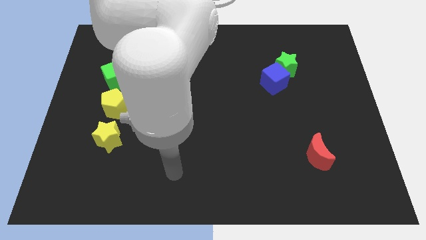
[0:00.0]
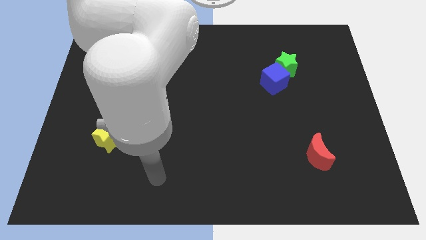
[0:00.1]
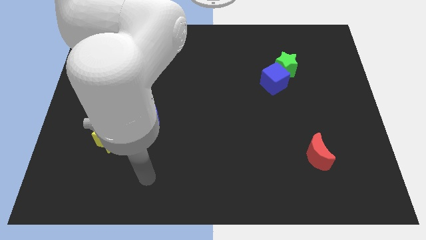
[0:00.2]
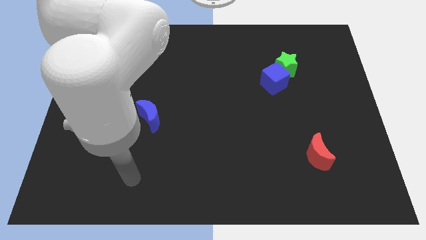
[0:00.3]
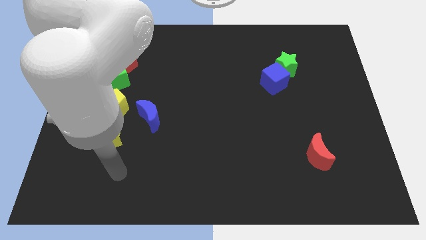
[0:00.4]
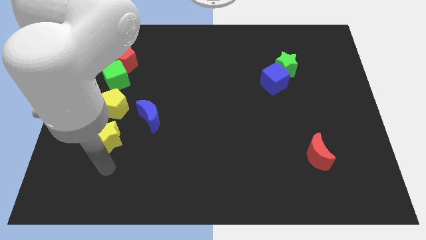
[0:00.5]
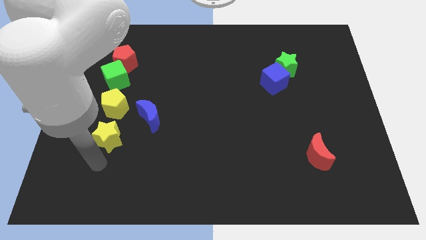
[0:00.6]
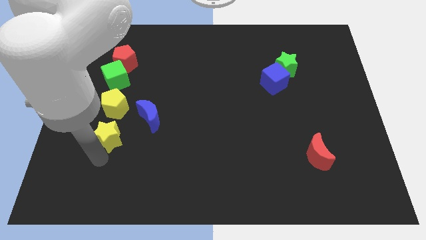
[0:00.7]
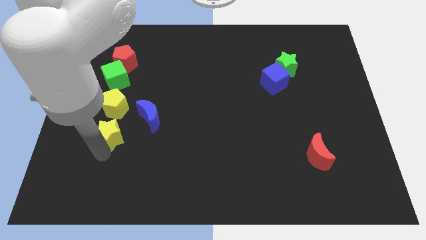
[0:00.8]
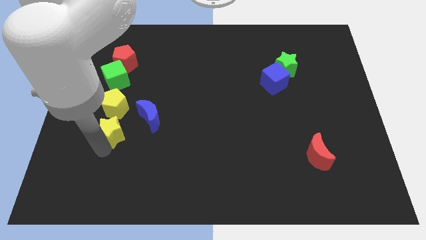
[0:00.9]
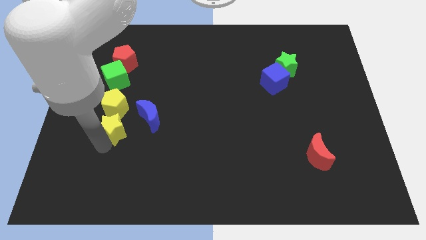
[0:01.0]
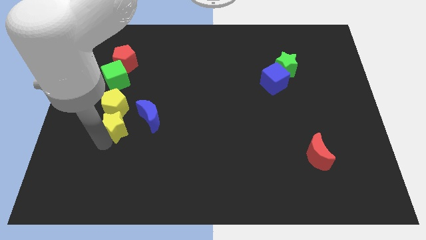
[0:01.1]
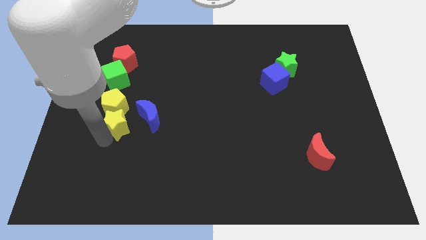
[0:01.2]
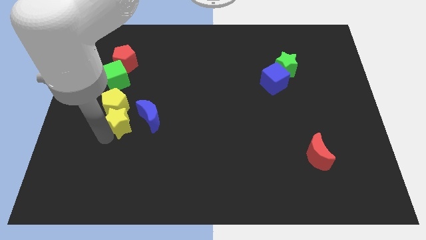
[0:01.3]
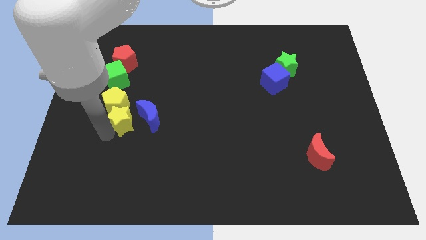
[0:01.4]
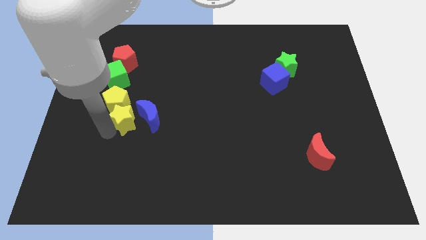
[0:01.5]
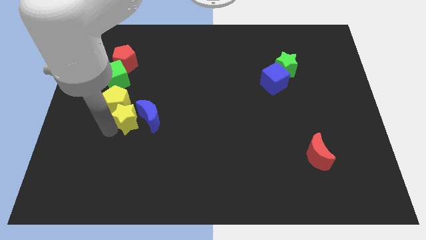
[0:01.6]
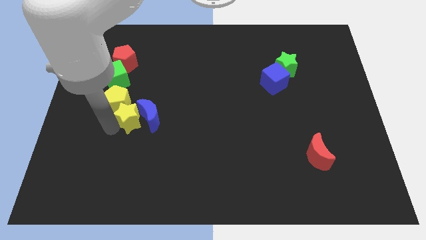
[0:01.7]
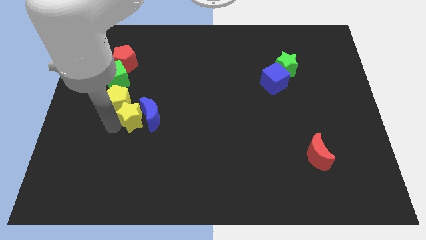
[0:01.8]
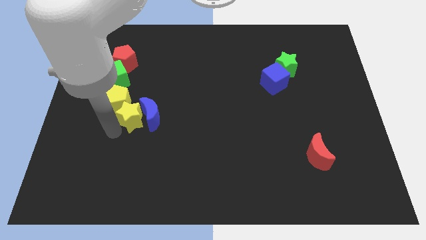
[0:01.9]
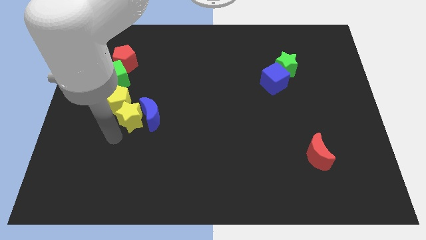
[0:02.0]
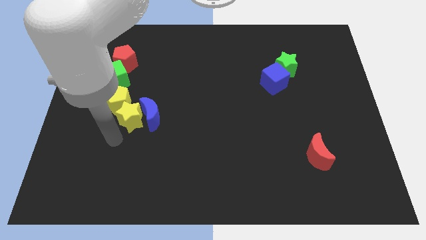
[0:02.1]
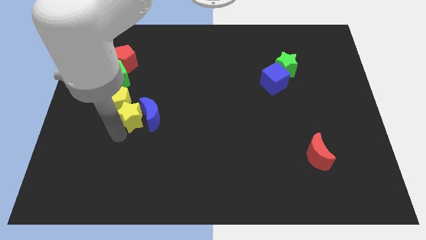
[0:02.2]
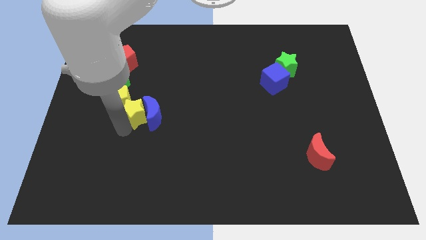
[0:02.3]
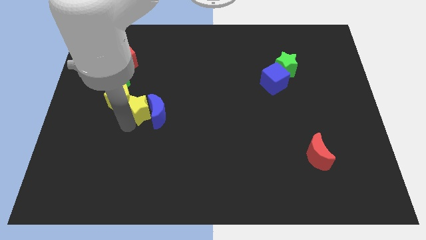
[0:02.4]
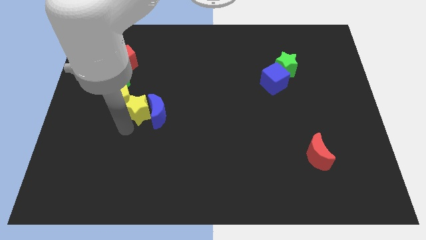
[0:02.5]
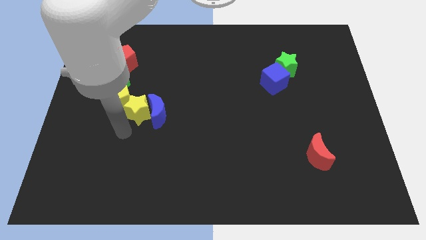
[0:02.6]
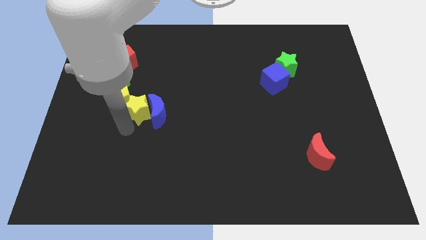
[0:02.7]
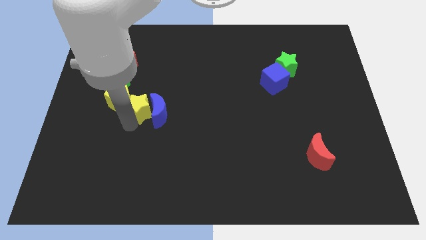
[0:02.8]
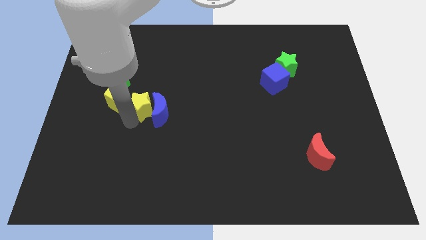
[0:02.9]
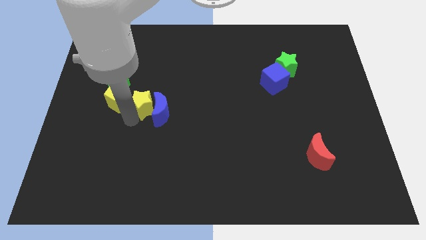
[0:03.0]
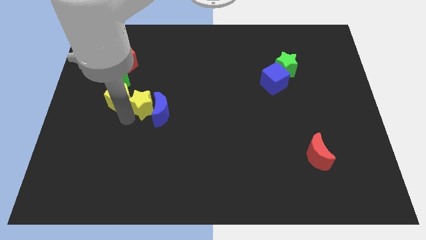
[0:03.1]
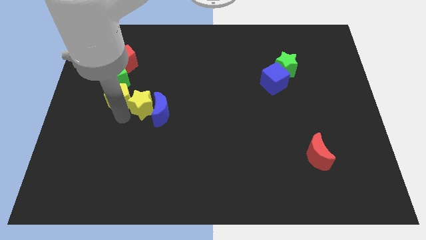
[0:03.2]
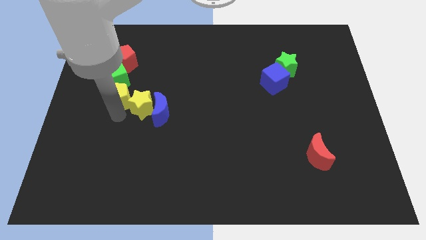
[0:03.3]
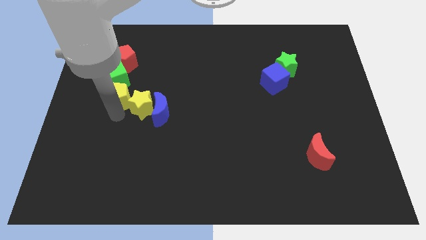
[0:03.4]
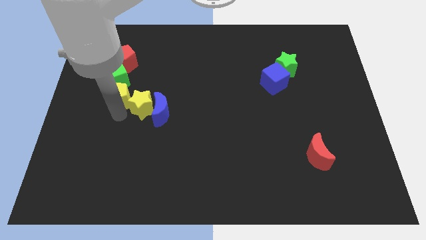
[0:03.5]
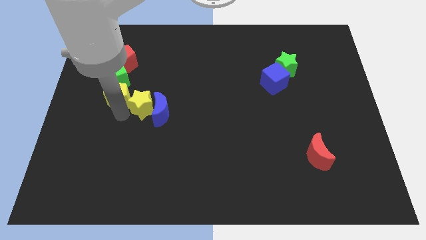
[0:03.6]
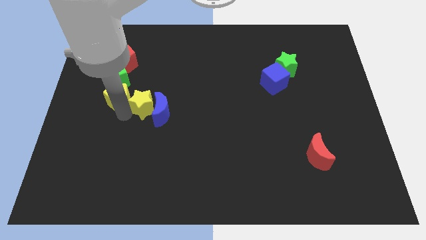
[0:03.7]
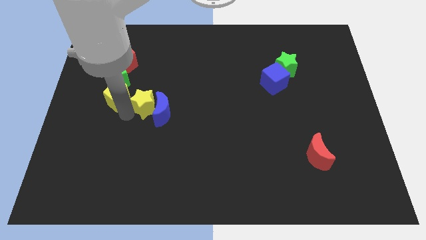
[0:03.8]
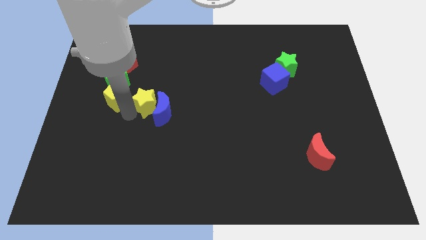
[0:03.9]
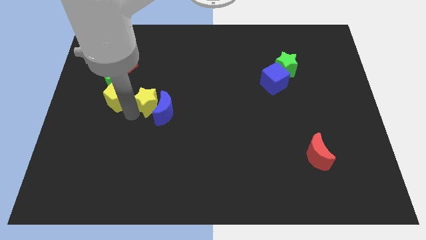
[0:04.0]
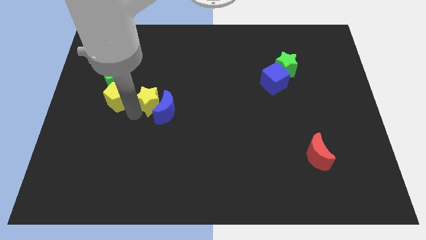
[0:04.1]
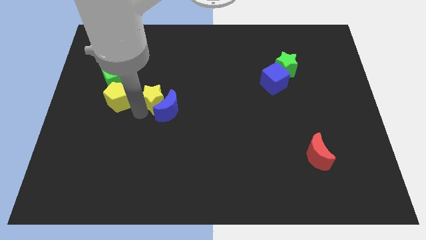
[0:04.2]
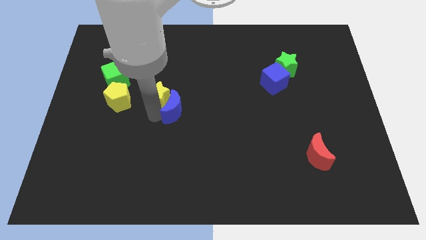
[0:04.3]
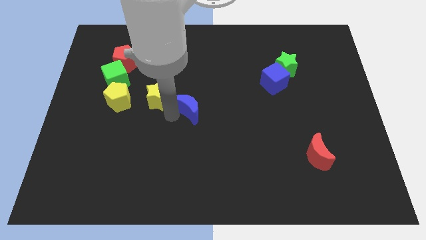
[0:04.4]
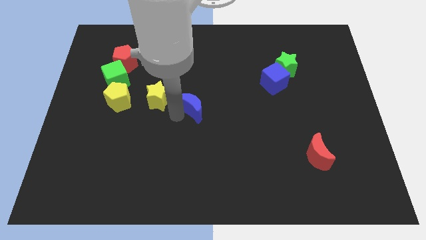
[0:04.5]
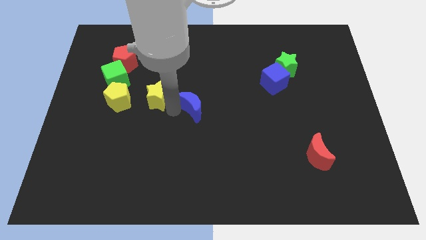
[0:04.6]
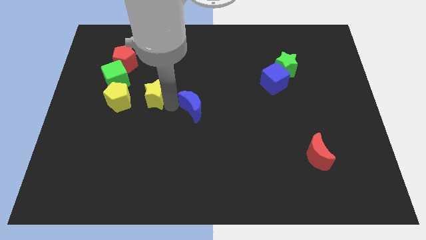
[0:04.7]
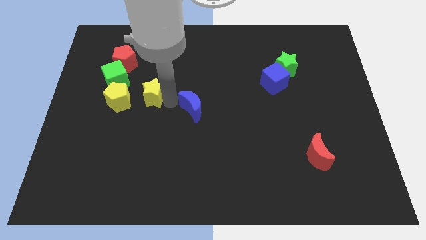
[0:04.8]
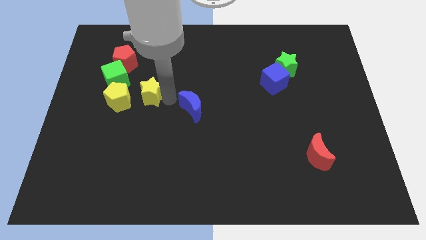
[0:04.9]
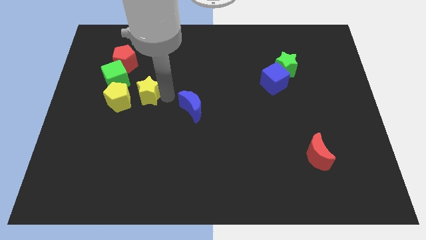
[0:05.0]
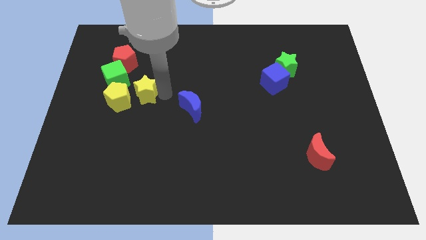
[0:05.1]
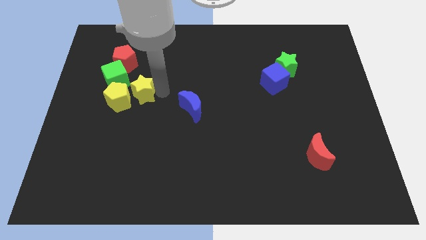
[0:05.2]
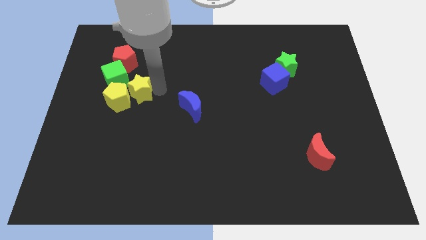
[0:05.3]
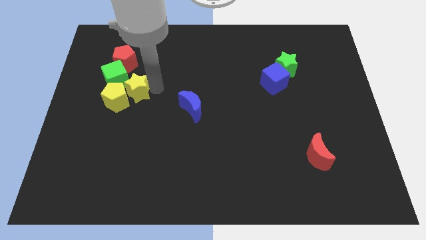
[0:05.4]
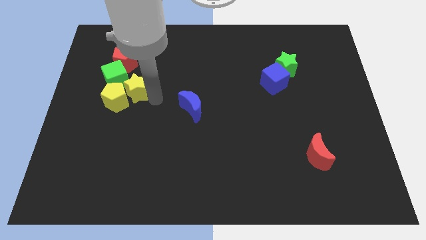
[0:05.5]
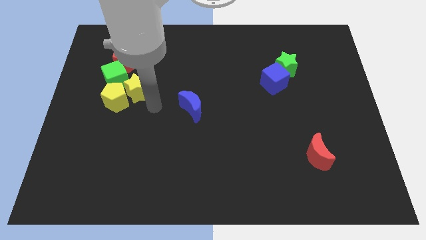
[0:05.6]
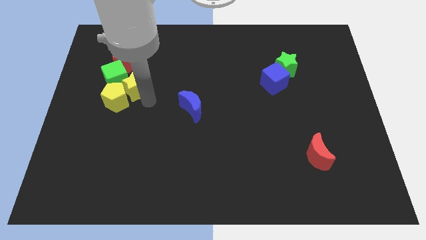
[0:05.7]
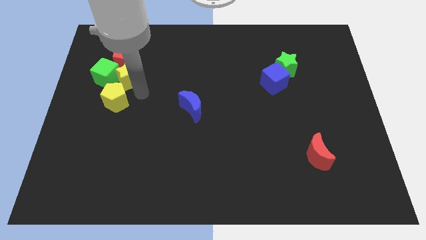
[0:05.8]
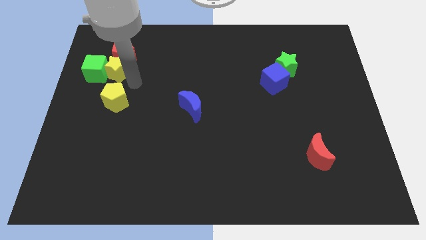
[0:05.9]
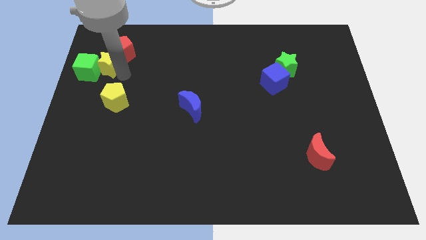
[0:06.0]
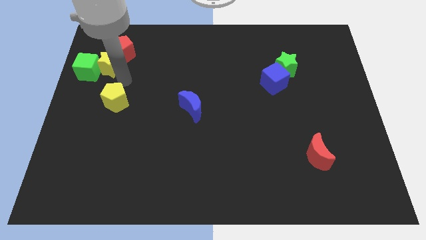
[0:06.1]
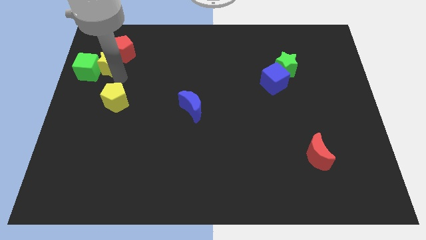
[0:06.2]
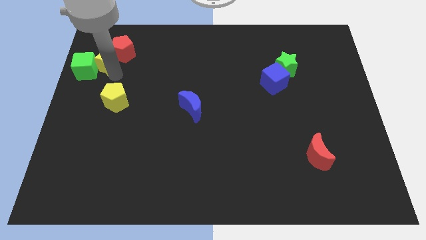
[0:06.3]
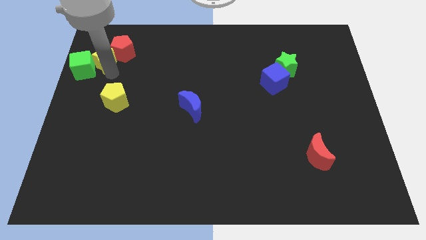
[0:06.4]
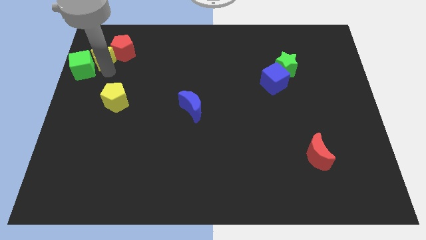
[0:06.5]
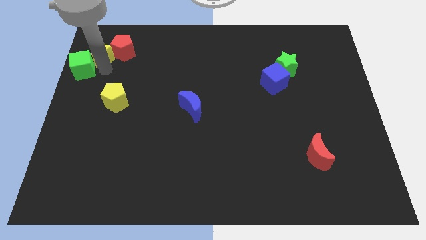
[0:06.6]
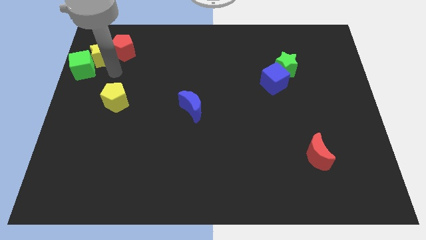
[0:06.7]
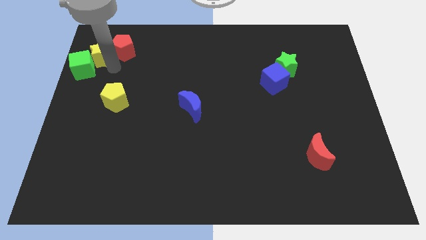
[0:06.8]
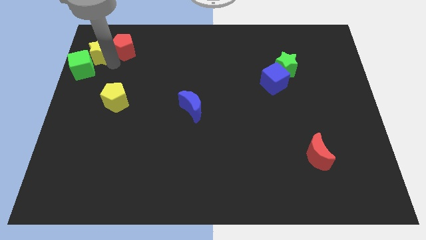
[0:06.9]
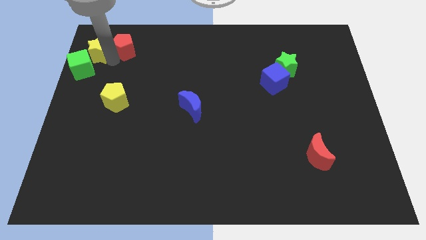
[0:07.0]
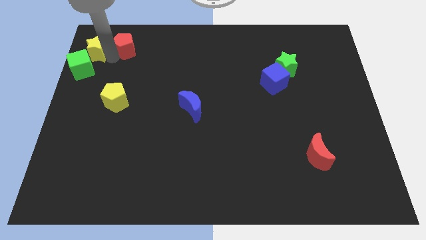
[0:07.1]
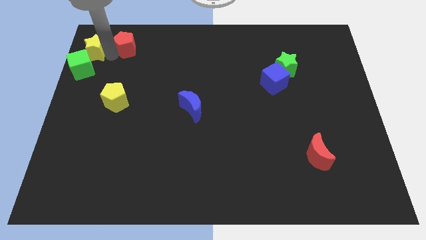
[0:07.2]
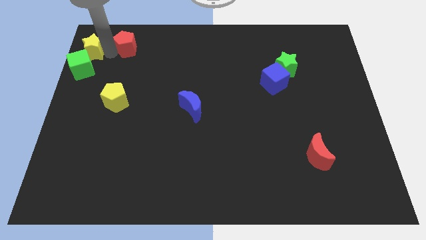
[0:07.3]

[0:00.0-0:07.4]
slide the yellow star to the upper left corner
